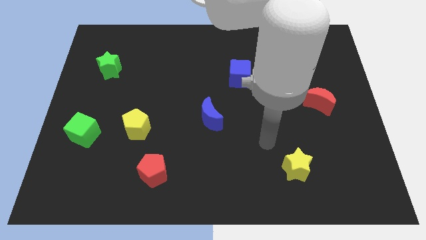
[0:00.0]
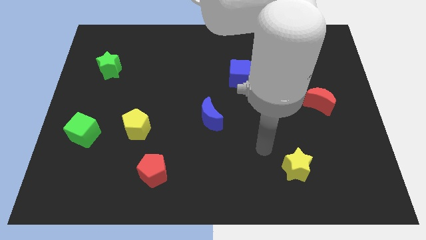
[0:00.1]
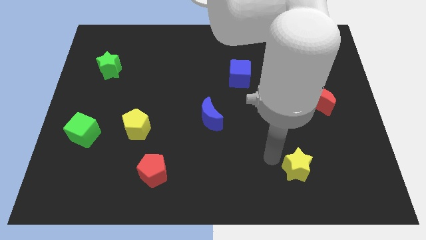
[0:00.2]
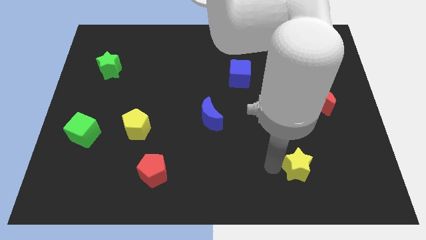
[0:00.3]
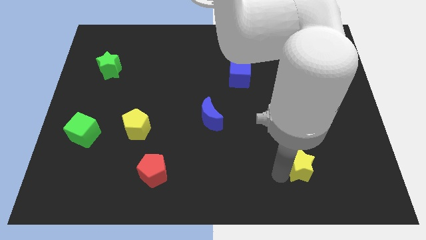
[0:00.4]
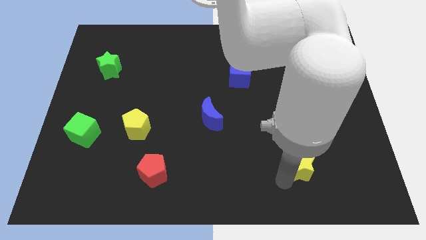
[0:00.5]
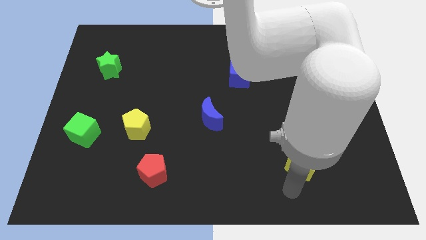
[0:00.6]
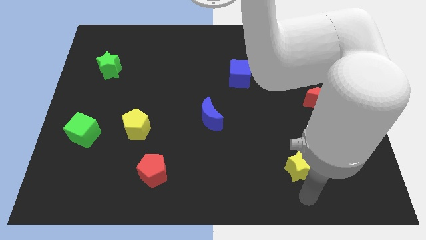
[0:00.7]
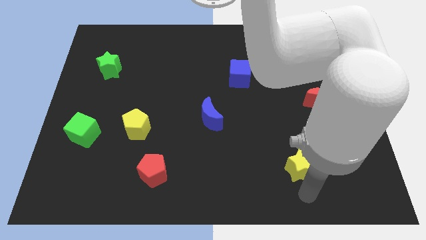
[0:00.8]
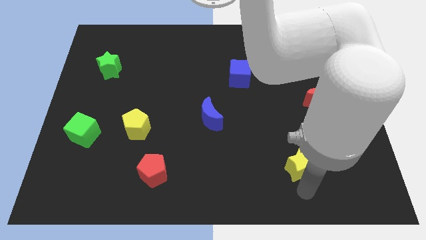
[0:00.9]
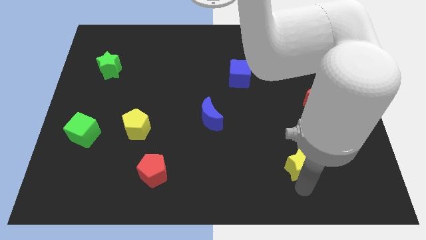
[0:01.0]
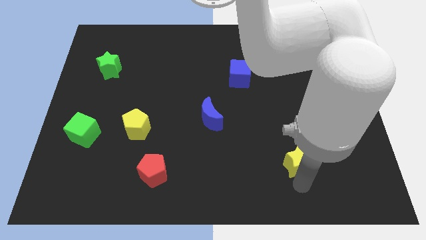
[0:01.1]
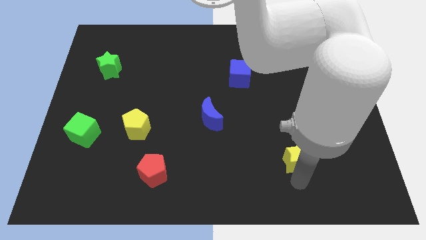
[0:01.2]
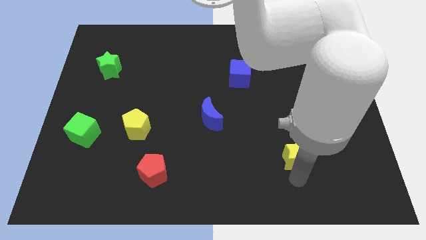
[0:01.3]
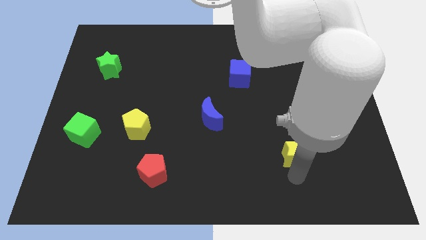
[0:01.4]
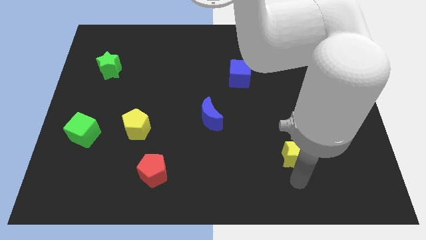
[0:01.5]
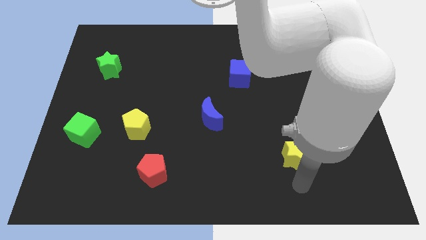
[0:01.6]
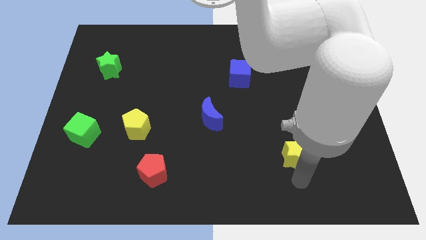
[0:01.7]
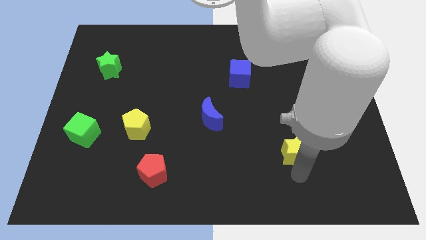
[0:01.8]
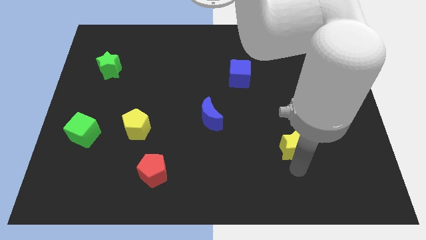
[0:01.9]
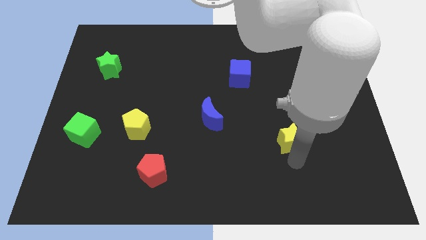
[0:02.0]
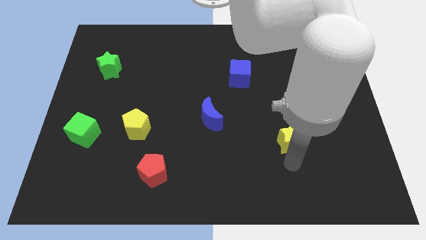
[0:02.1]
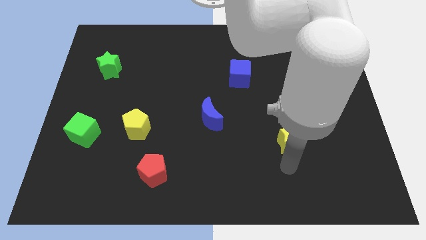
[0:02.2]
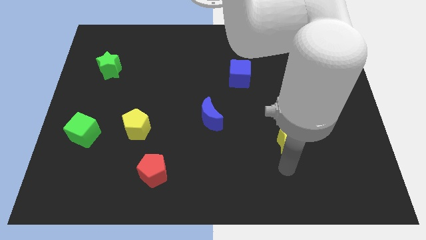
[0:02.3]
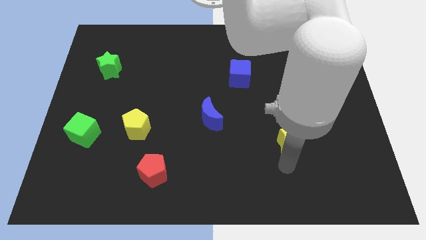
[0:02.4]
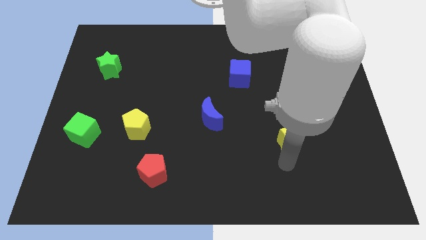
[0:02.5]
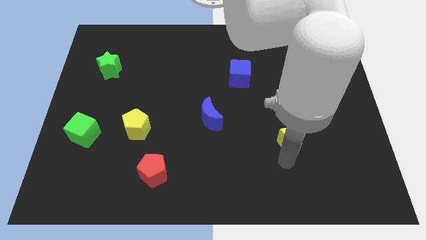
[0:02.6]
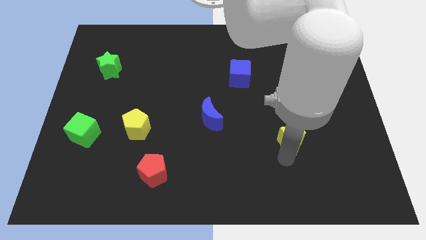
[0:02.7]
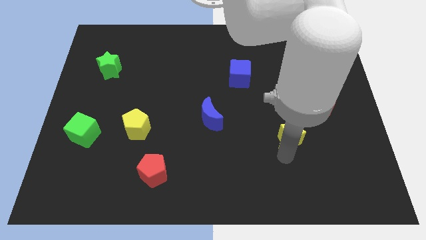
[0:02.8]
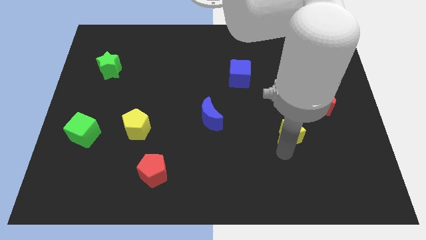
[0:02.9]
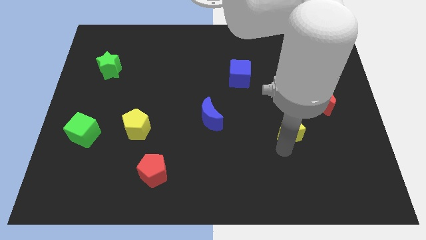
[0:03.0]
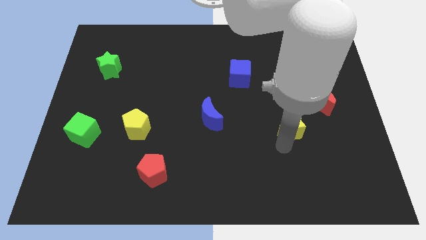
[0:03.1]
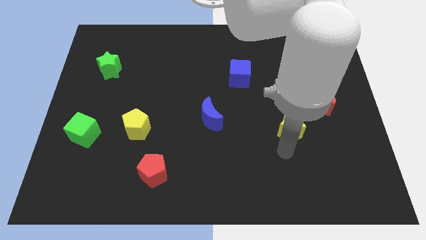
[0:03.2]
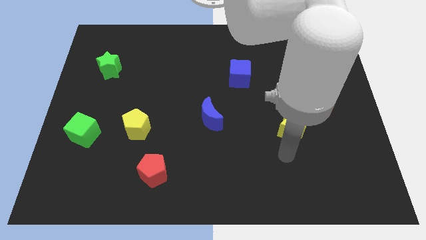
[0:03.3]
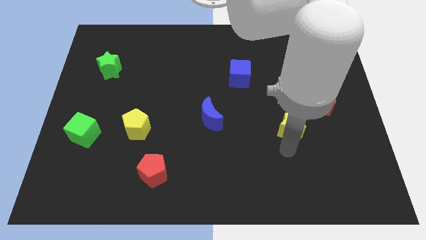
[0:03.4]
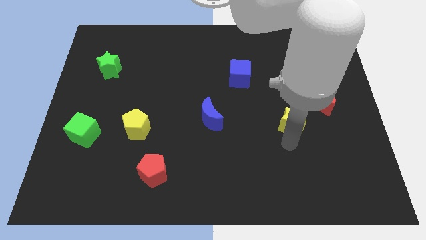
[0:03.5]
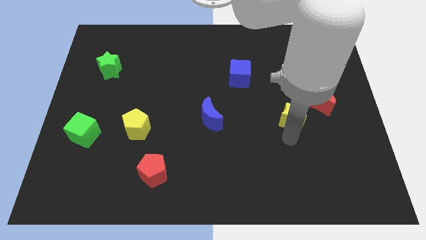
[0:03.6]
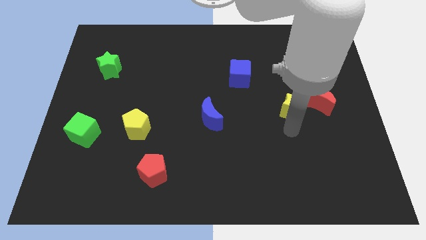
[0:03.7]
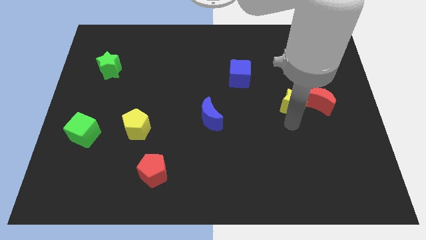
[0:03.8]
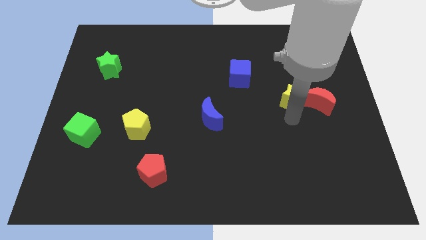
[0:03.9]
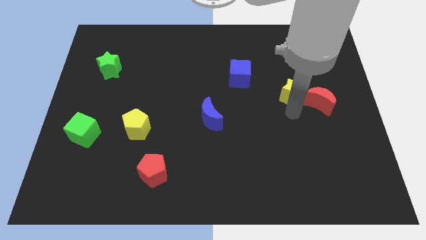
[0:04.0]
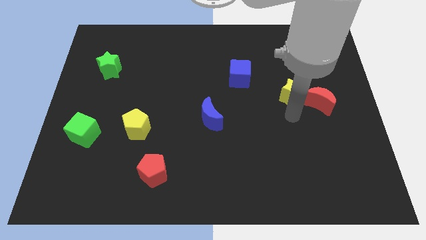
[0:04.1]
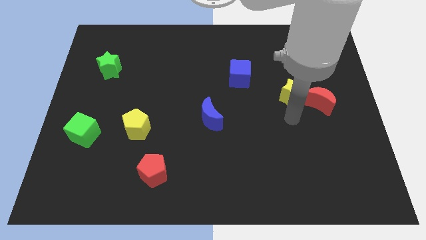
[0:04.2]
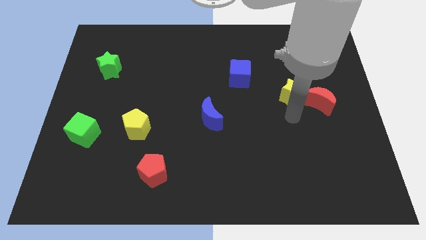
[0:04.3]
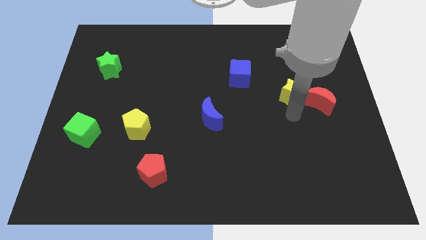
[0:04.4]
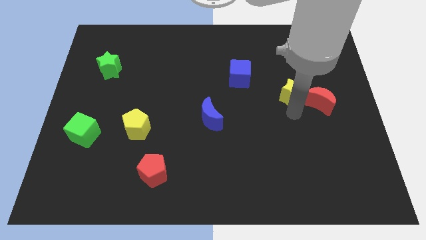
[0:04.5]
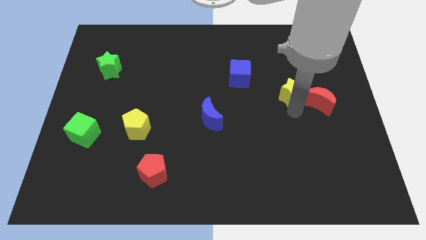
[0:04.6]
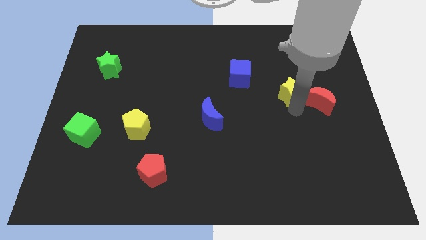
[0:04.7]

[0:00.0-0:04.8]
move the yellow star up

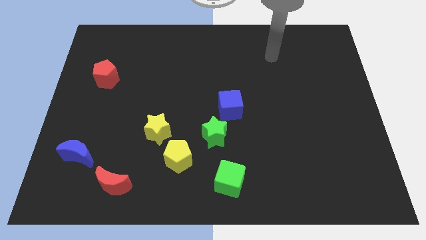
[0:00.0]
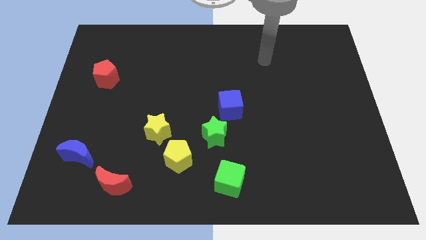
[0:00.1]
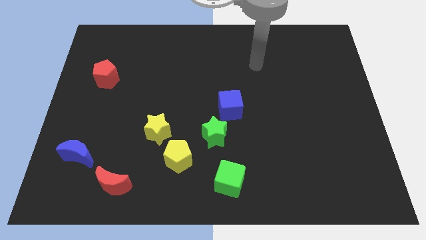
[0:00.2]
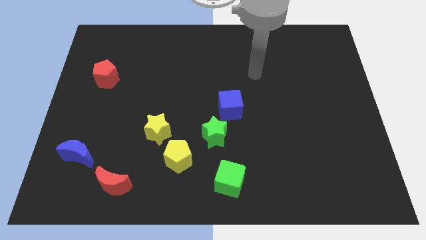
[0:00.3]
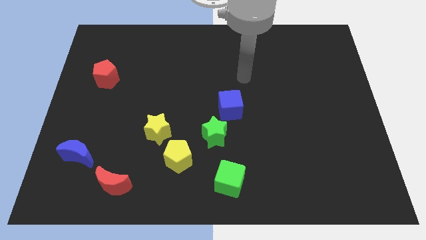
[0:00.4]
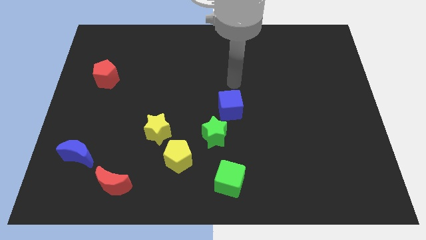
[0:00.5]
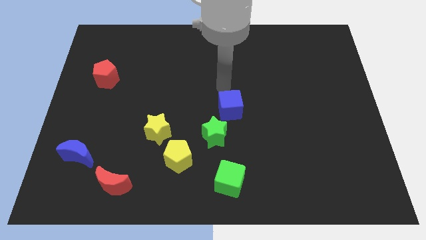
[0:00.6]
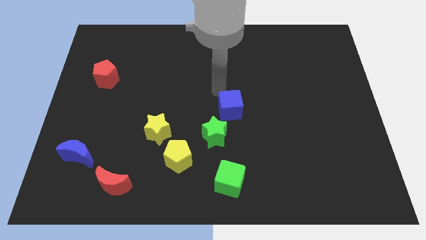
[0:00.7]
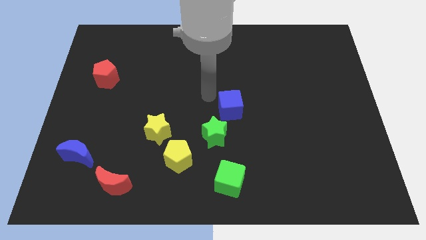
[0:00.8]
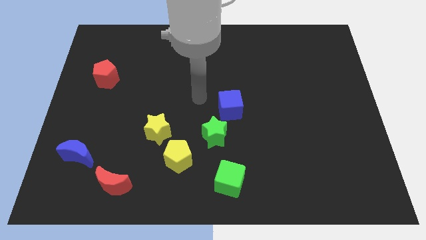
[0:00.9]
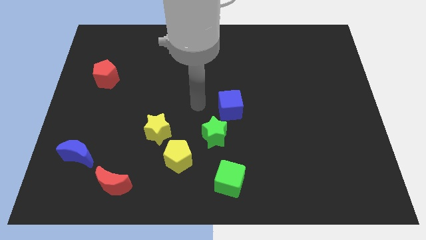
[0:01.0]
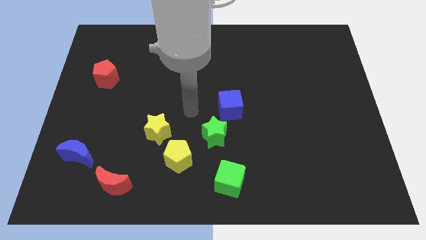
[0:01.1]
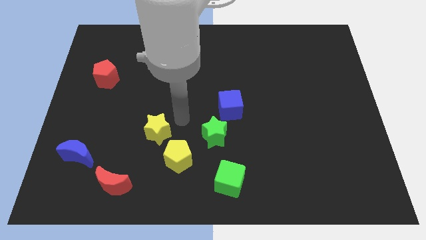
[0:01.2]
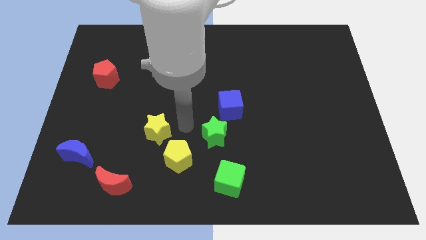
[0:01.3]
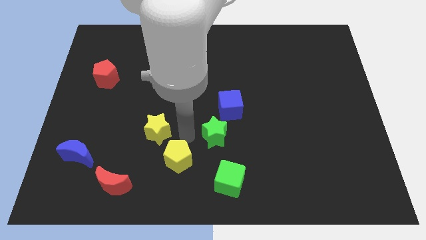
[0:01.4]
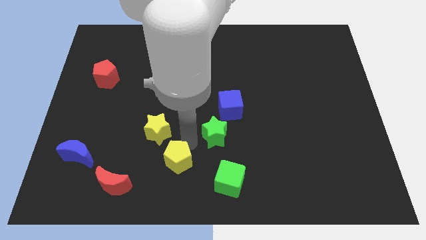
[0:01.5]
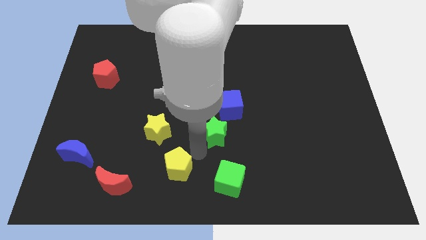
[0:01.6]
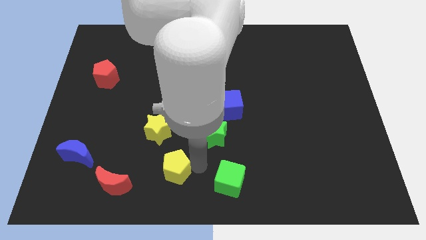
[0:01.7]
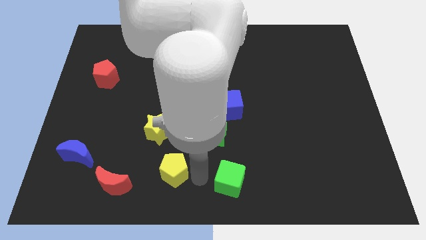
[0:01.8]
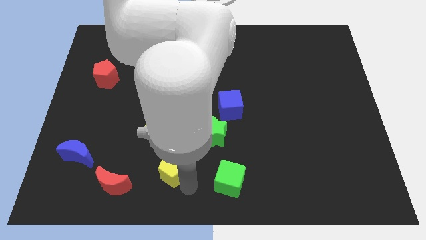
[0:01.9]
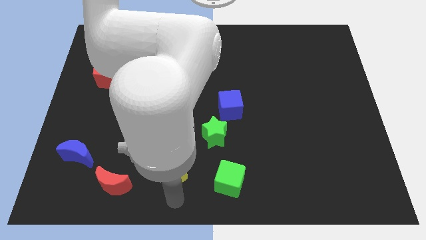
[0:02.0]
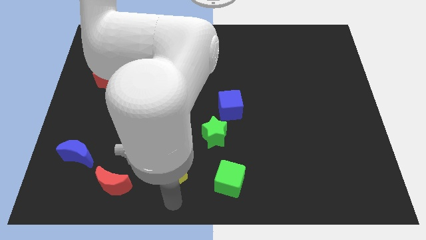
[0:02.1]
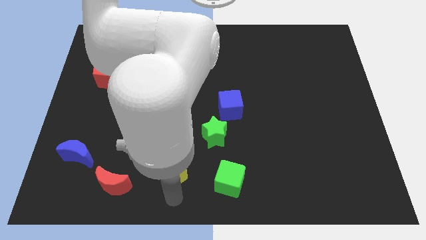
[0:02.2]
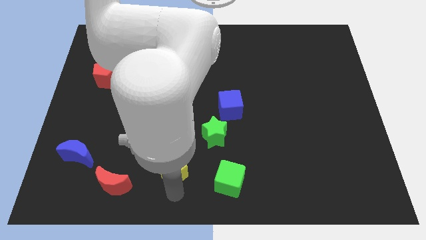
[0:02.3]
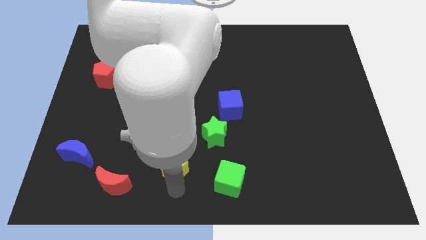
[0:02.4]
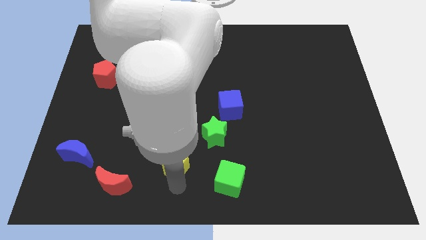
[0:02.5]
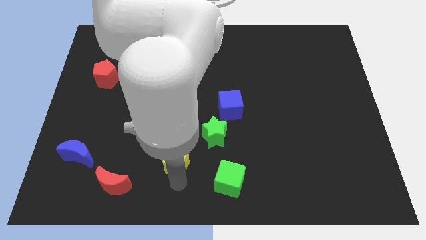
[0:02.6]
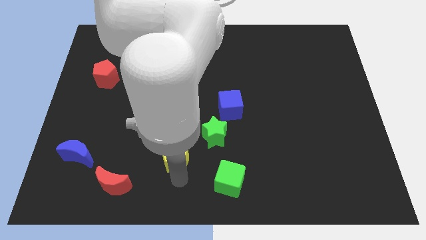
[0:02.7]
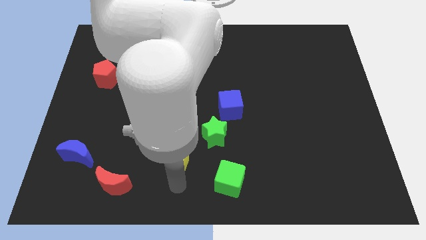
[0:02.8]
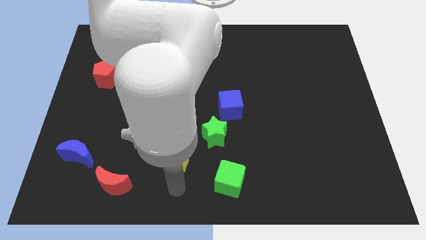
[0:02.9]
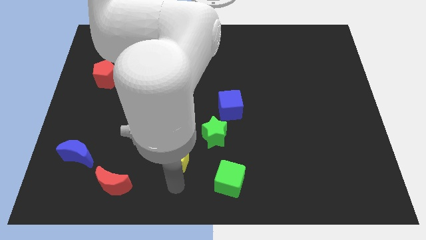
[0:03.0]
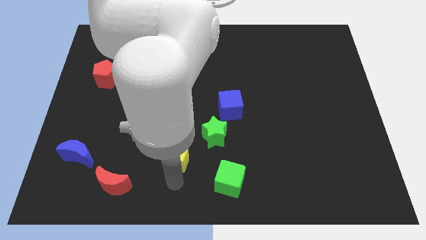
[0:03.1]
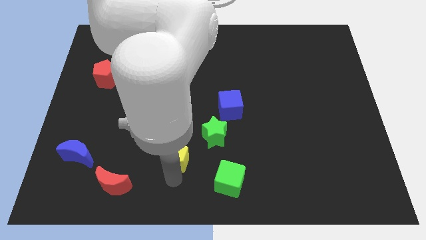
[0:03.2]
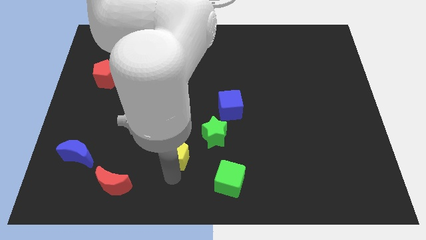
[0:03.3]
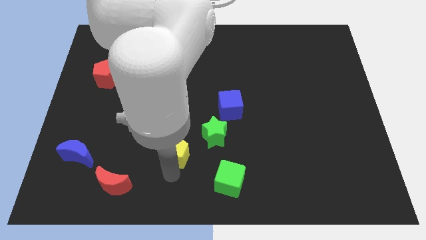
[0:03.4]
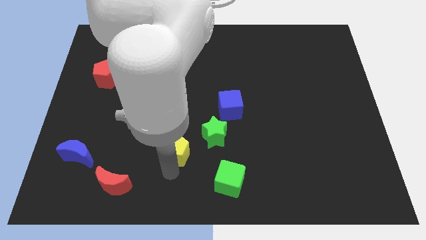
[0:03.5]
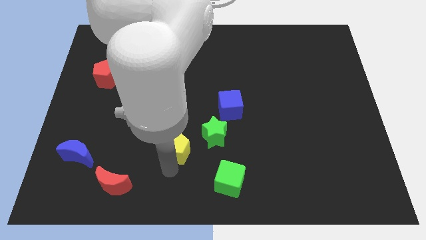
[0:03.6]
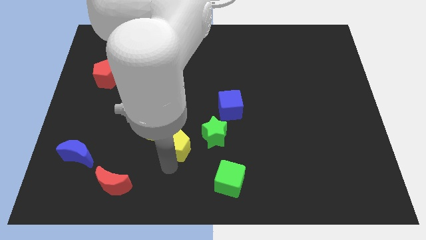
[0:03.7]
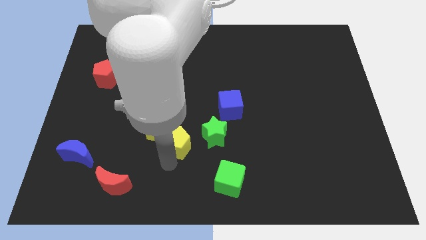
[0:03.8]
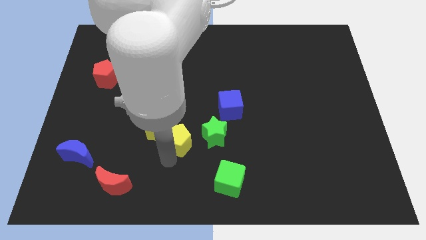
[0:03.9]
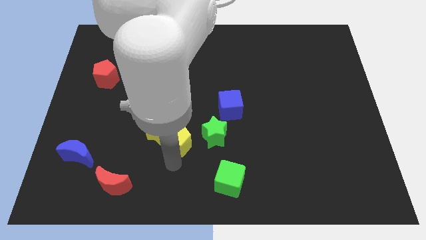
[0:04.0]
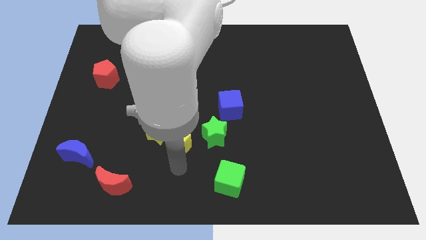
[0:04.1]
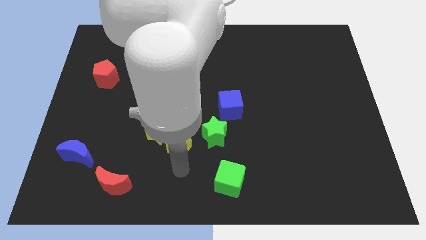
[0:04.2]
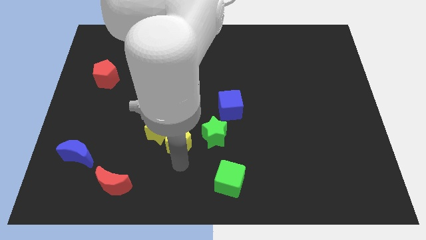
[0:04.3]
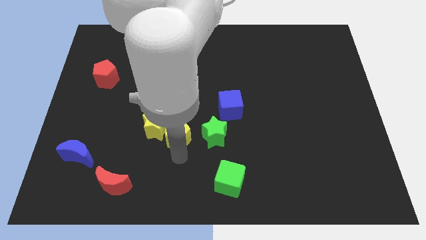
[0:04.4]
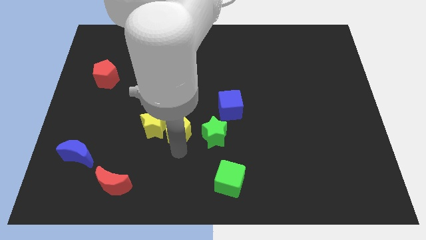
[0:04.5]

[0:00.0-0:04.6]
slightly push the yellow pentagon up
